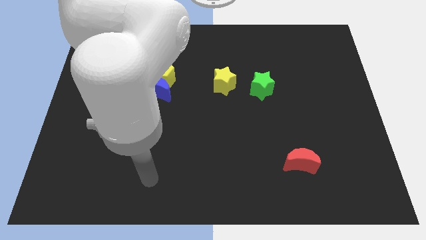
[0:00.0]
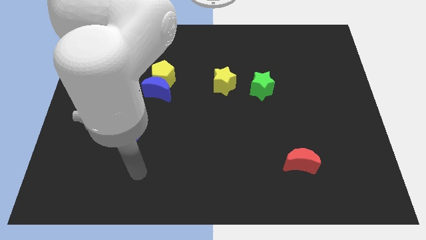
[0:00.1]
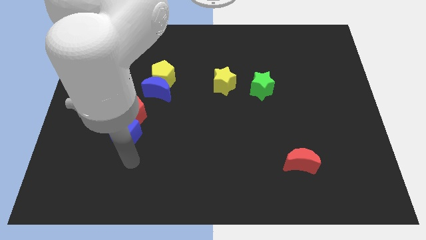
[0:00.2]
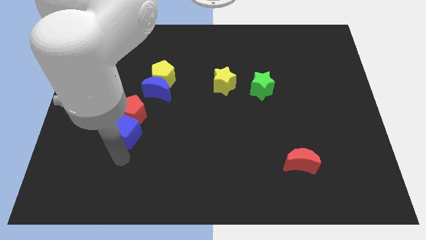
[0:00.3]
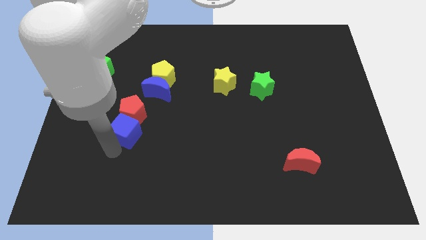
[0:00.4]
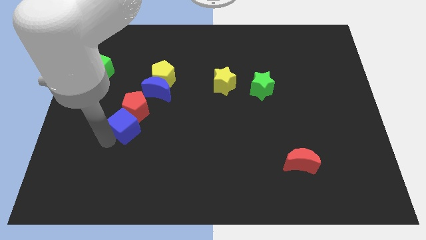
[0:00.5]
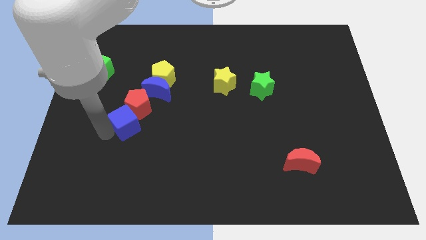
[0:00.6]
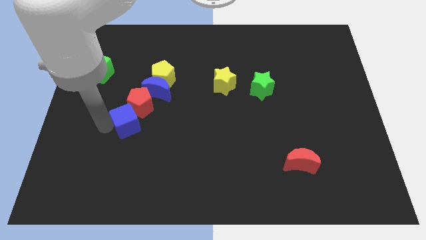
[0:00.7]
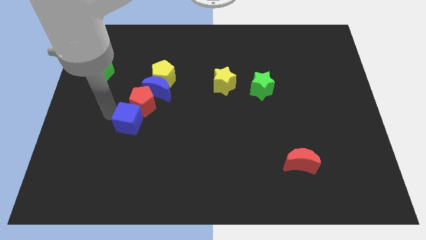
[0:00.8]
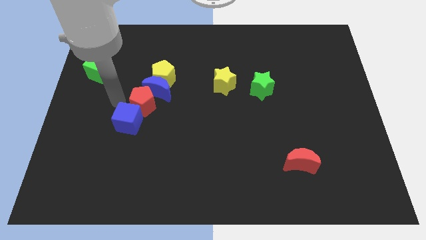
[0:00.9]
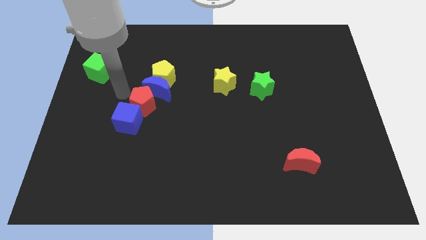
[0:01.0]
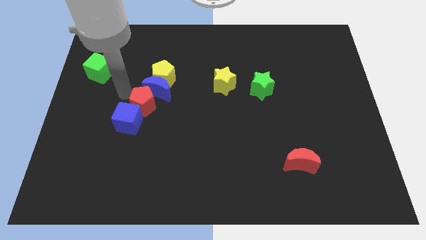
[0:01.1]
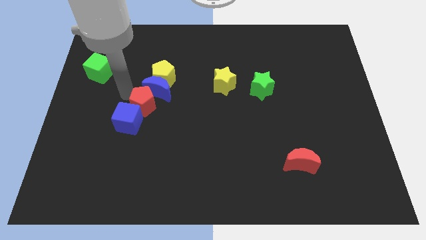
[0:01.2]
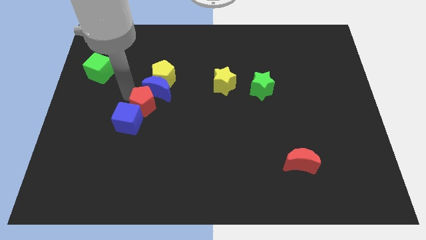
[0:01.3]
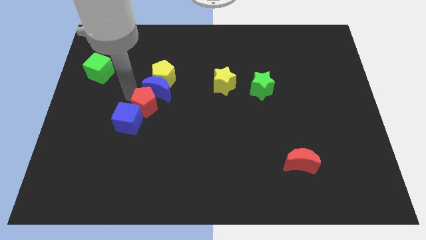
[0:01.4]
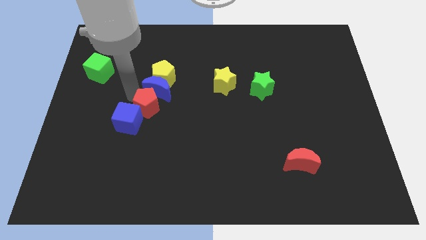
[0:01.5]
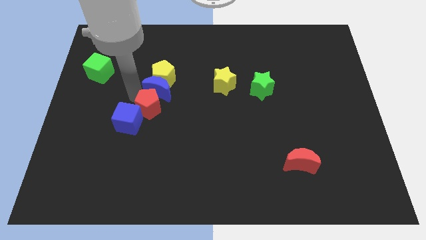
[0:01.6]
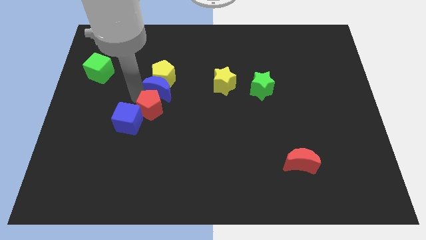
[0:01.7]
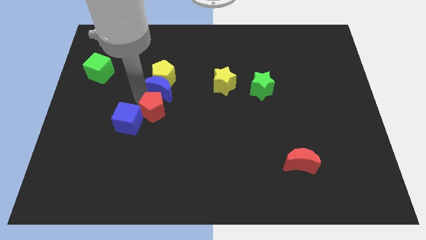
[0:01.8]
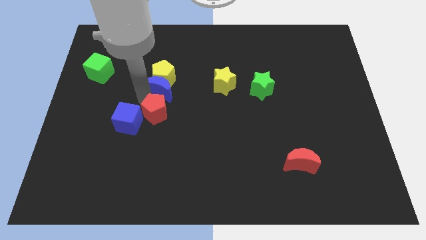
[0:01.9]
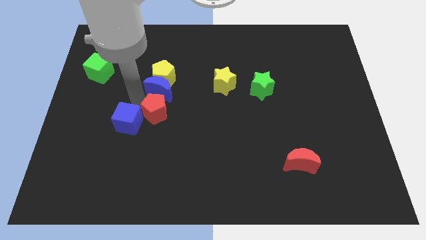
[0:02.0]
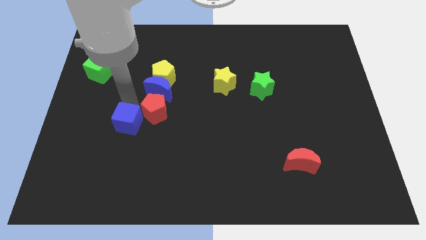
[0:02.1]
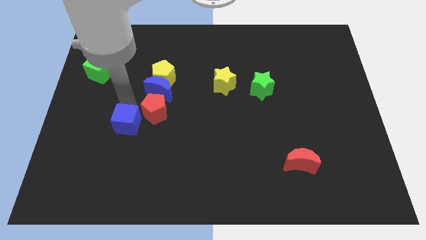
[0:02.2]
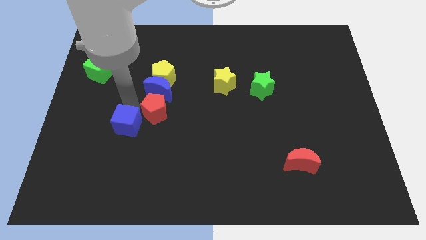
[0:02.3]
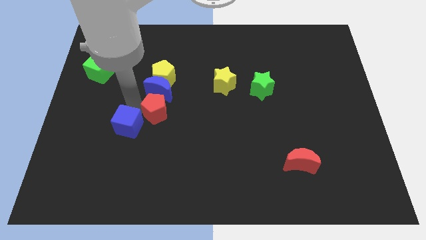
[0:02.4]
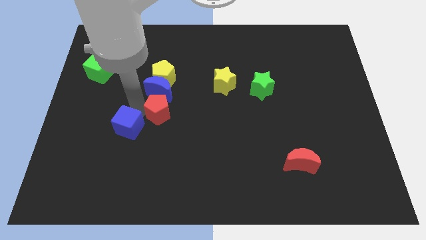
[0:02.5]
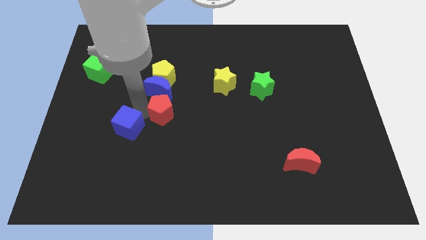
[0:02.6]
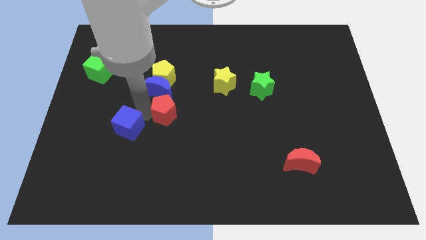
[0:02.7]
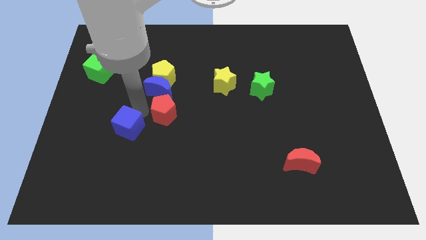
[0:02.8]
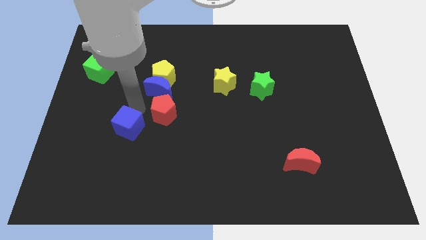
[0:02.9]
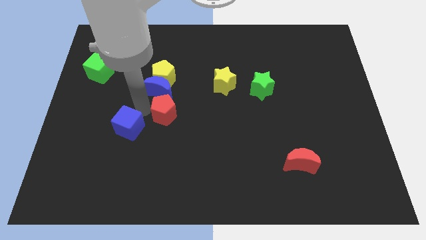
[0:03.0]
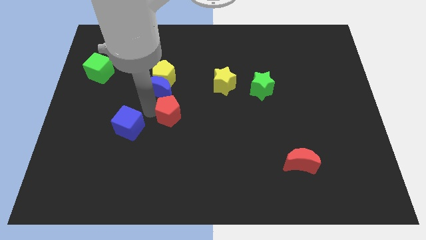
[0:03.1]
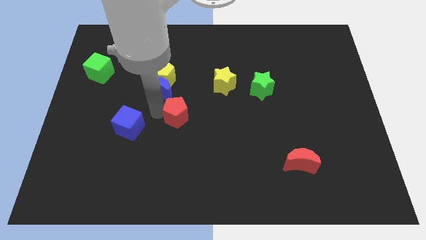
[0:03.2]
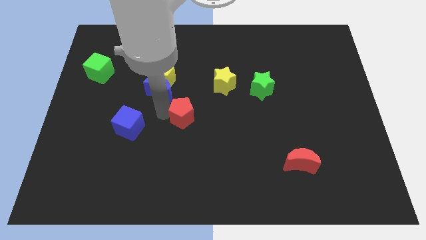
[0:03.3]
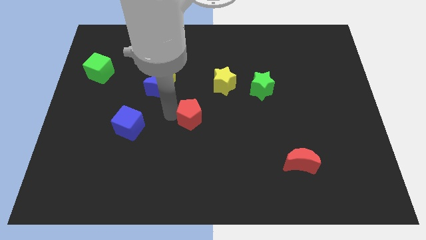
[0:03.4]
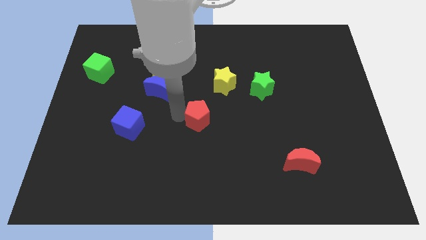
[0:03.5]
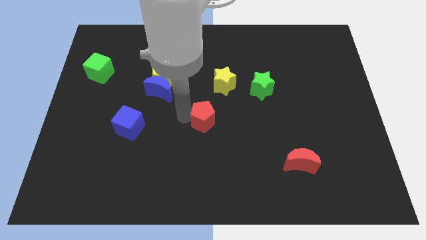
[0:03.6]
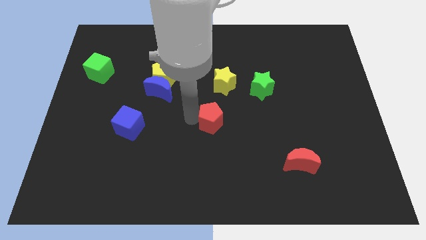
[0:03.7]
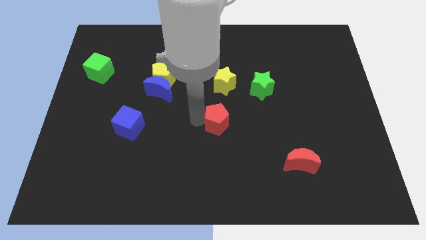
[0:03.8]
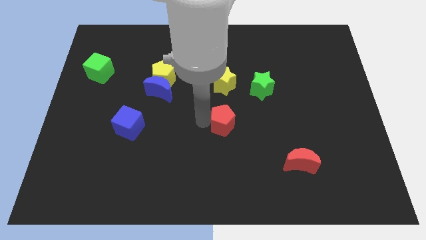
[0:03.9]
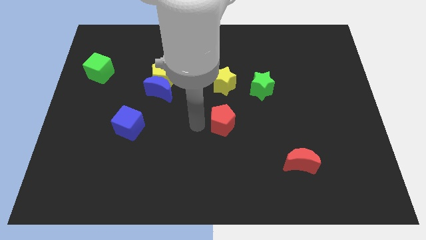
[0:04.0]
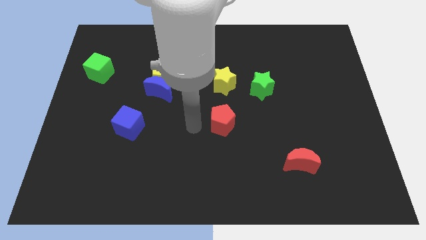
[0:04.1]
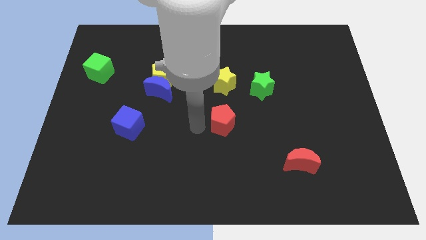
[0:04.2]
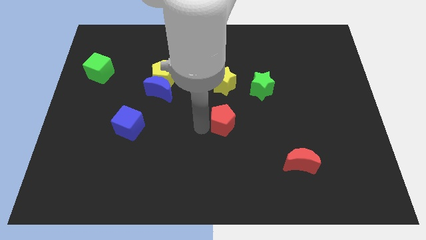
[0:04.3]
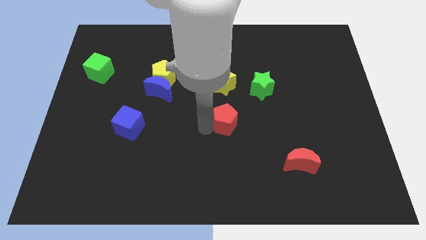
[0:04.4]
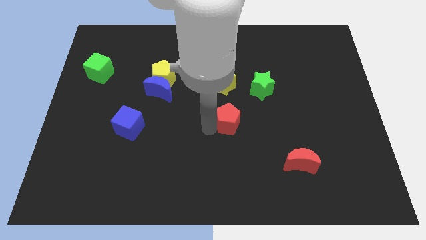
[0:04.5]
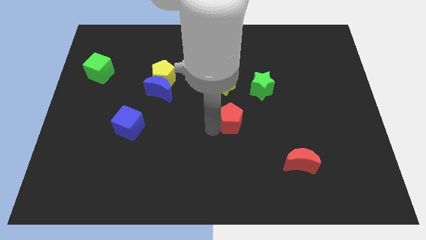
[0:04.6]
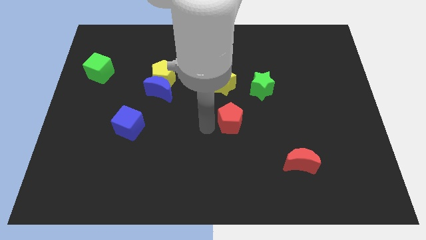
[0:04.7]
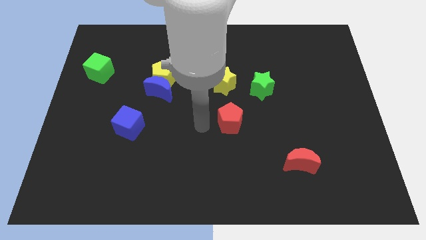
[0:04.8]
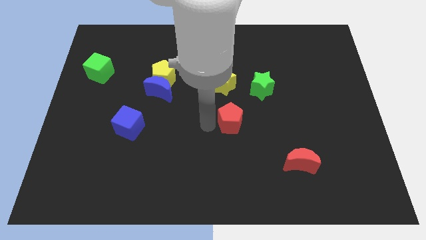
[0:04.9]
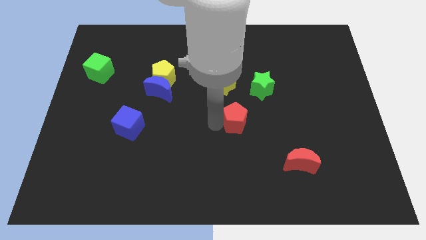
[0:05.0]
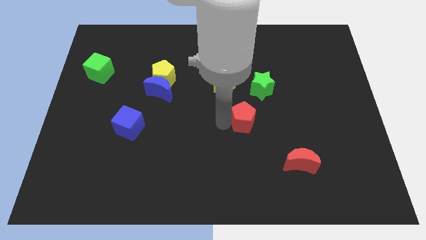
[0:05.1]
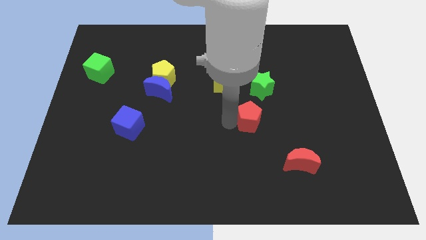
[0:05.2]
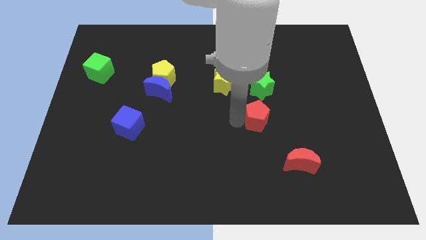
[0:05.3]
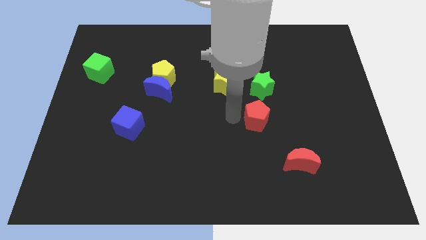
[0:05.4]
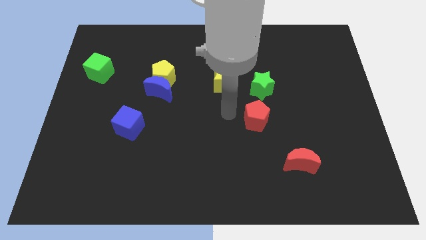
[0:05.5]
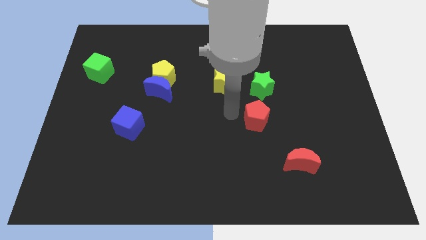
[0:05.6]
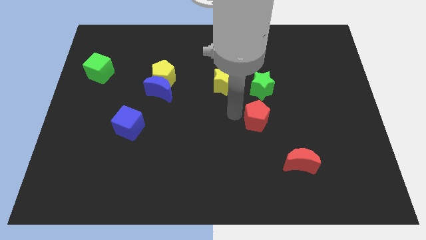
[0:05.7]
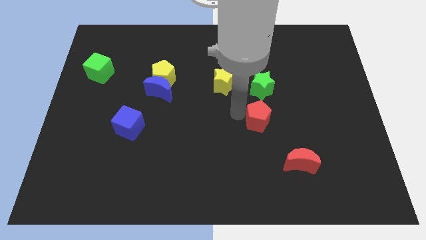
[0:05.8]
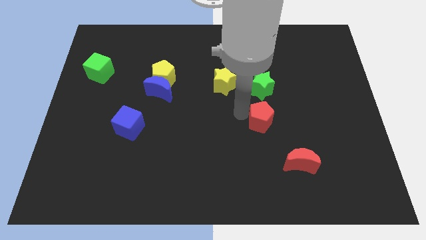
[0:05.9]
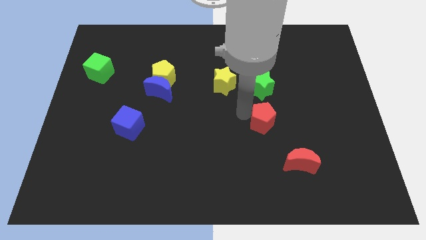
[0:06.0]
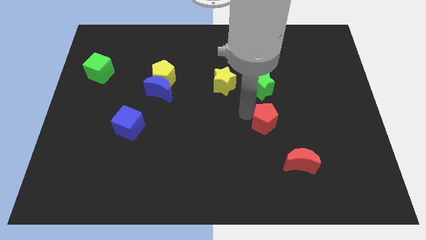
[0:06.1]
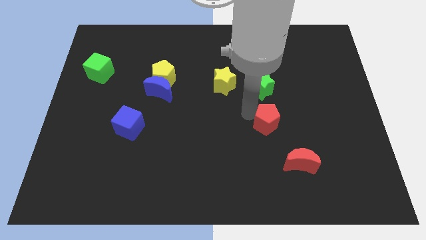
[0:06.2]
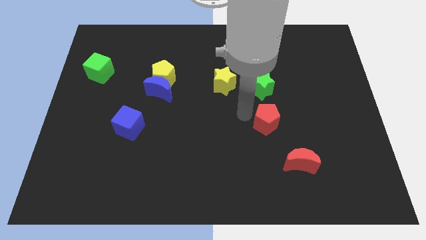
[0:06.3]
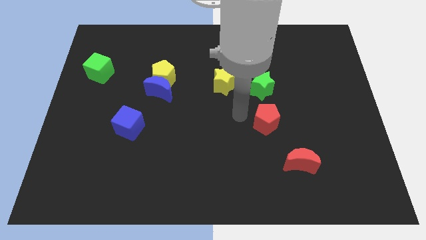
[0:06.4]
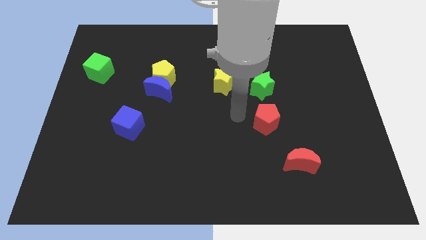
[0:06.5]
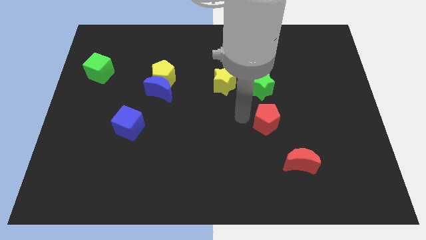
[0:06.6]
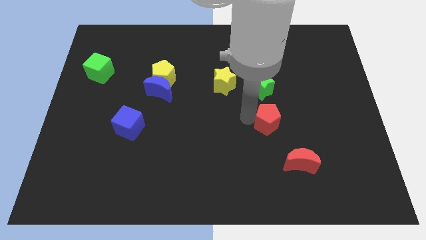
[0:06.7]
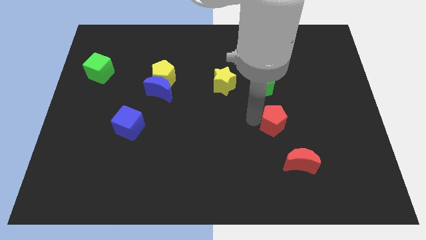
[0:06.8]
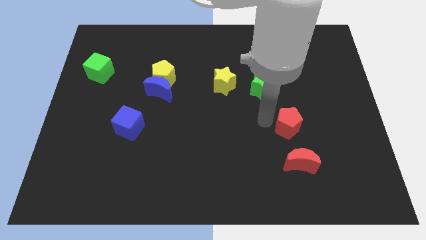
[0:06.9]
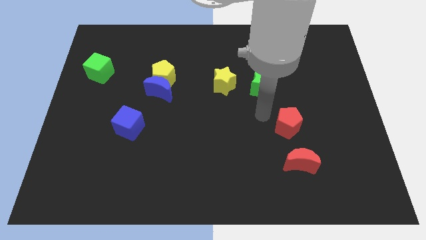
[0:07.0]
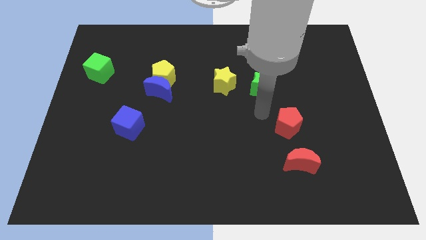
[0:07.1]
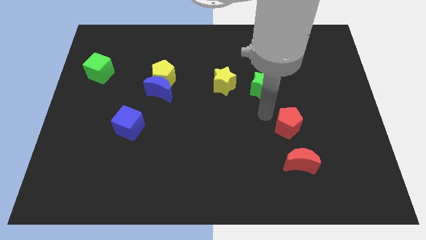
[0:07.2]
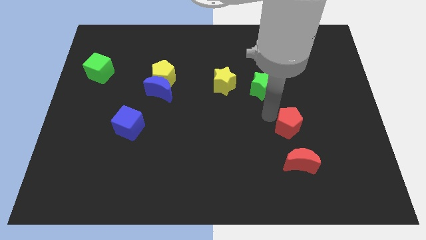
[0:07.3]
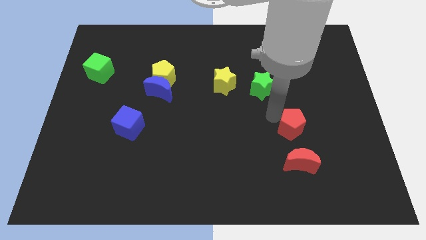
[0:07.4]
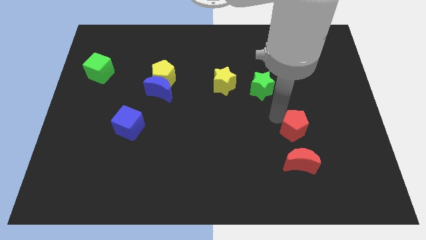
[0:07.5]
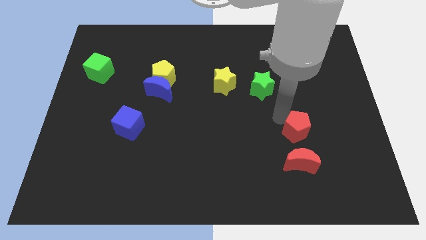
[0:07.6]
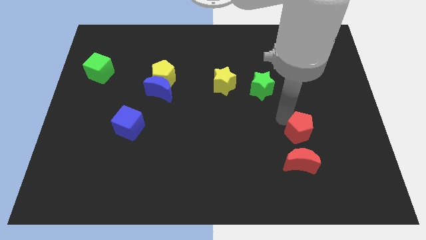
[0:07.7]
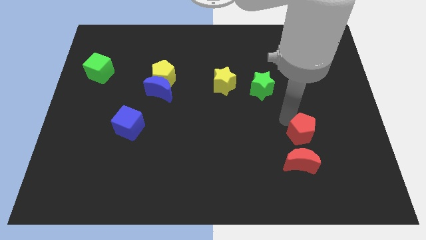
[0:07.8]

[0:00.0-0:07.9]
slide the red pentagon to the top right of the red moon
